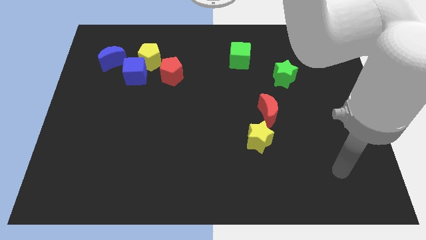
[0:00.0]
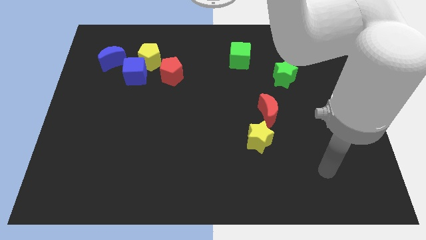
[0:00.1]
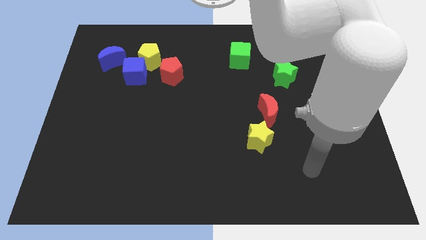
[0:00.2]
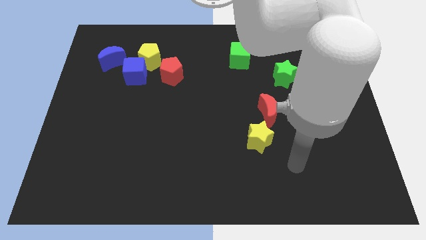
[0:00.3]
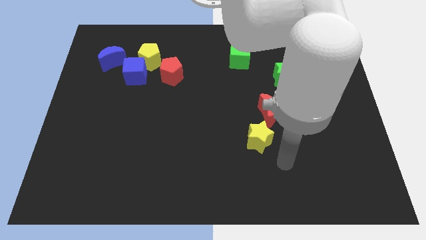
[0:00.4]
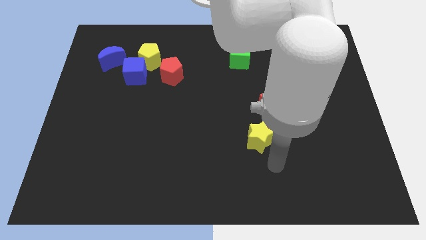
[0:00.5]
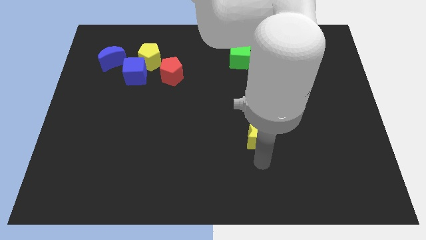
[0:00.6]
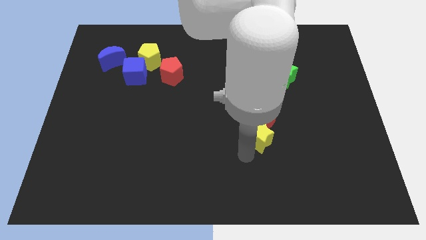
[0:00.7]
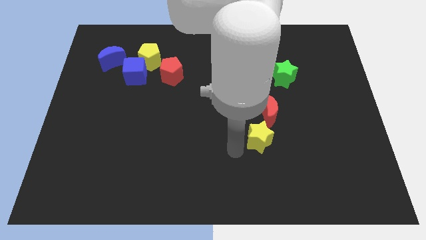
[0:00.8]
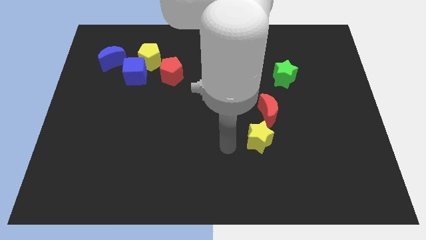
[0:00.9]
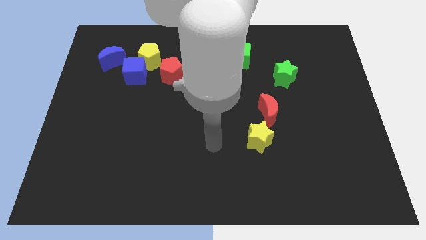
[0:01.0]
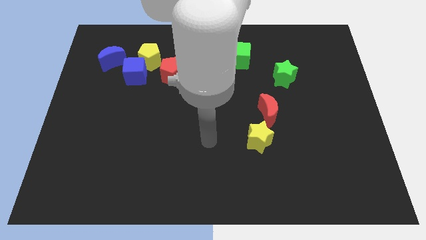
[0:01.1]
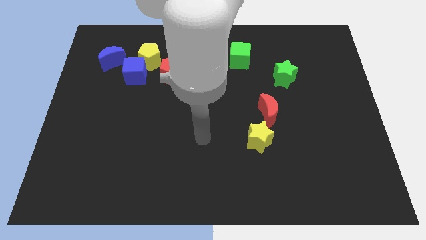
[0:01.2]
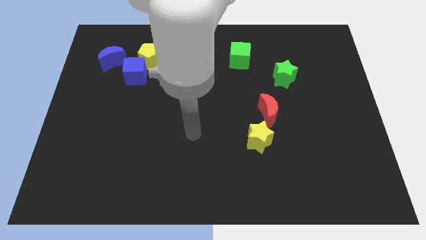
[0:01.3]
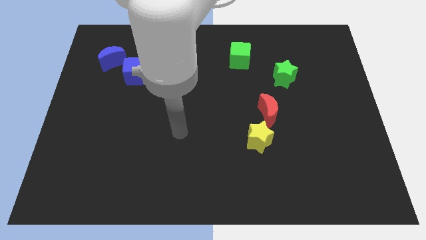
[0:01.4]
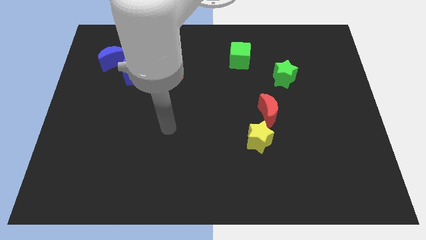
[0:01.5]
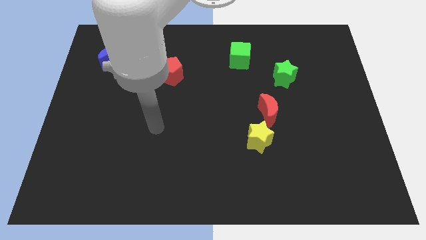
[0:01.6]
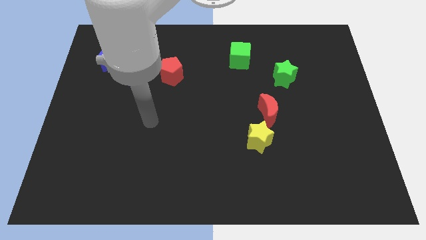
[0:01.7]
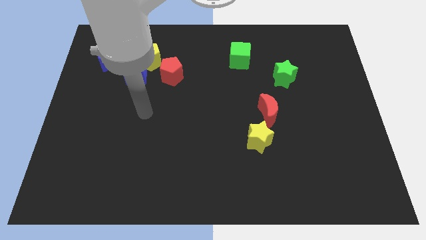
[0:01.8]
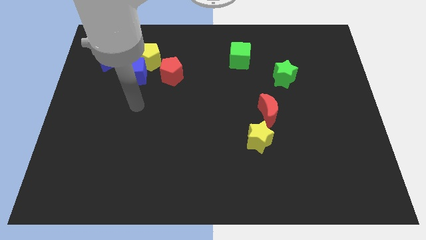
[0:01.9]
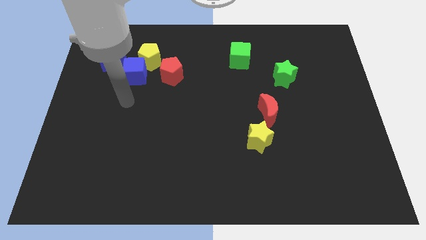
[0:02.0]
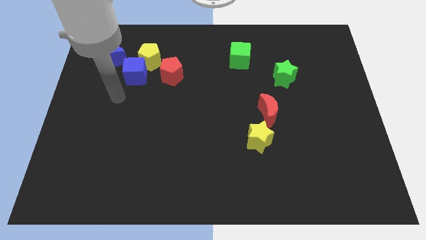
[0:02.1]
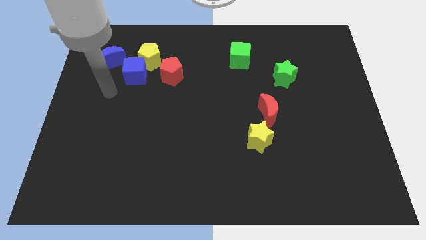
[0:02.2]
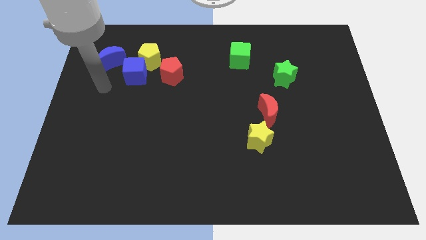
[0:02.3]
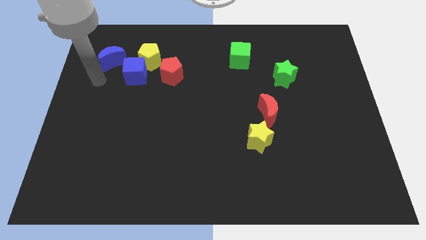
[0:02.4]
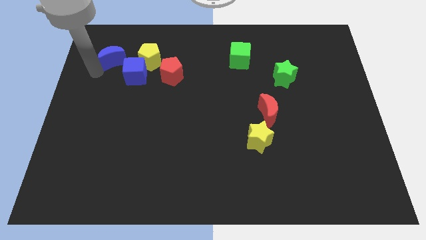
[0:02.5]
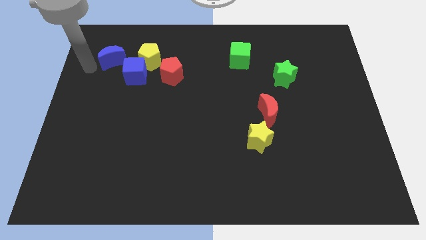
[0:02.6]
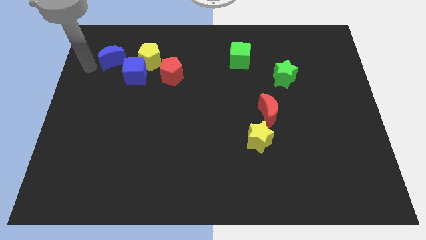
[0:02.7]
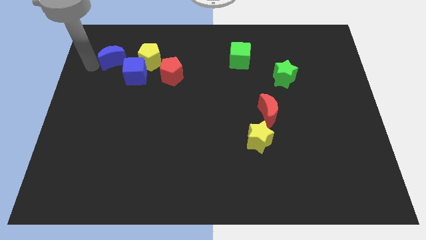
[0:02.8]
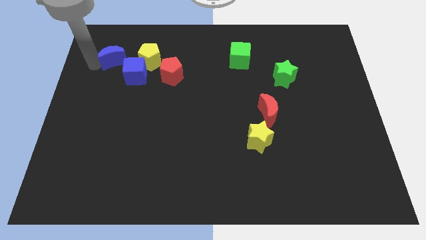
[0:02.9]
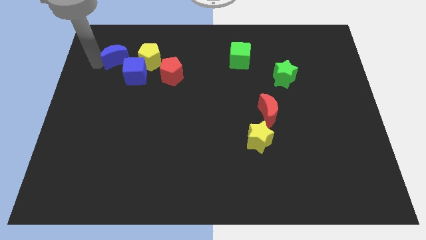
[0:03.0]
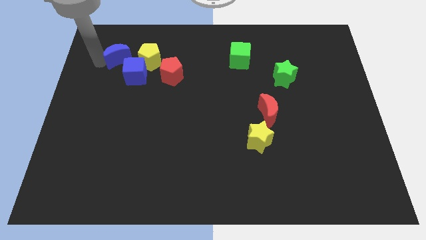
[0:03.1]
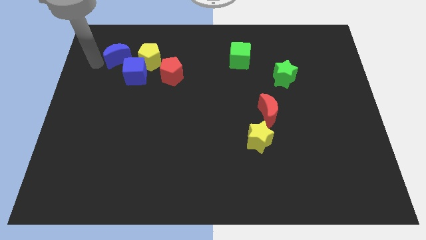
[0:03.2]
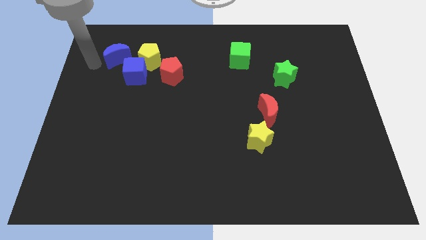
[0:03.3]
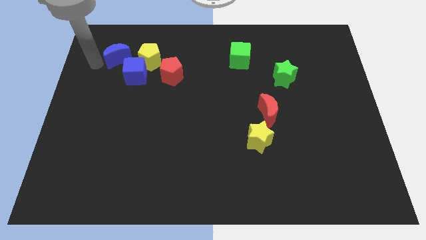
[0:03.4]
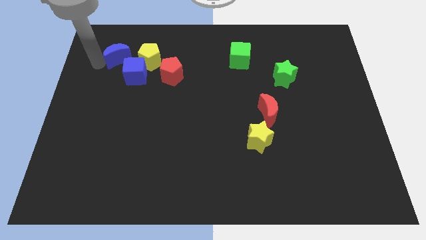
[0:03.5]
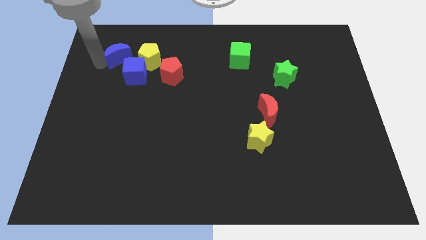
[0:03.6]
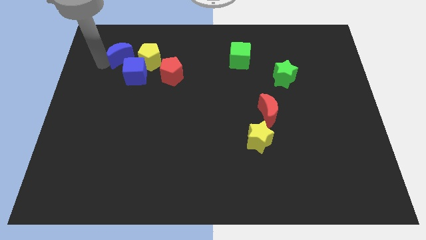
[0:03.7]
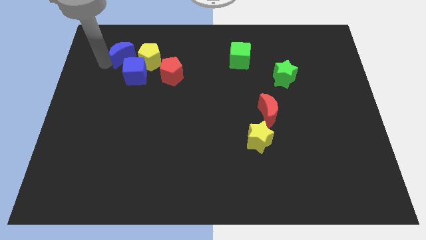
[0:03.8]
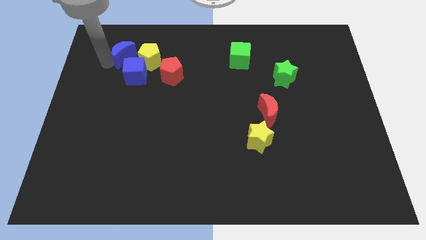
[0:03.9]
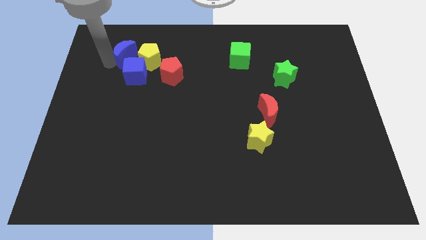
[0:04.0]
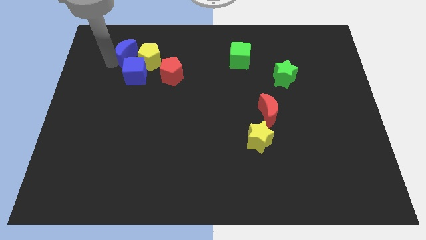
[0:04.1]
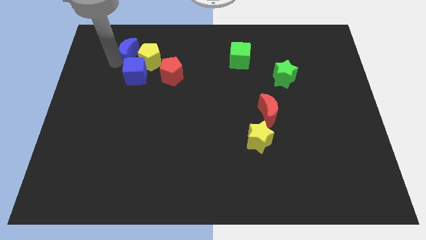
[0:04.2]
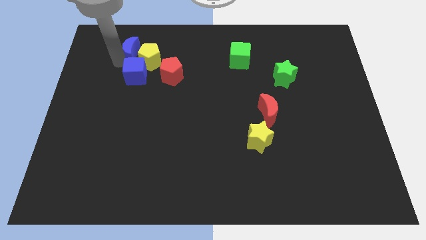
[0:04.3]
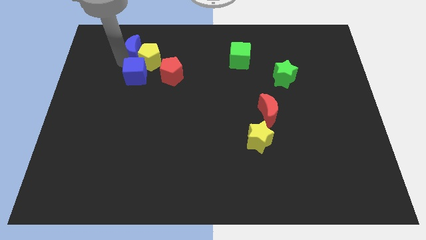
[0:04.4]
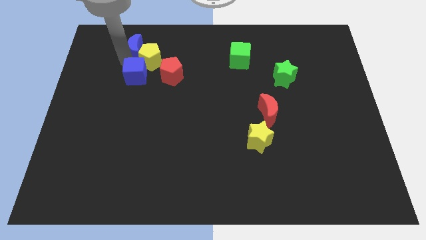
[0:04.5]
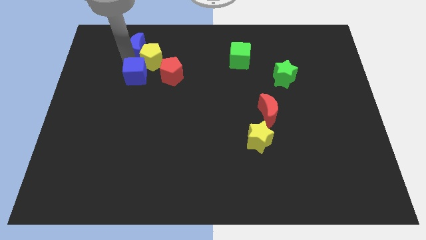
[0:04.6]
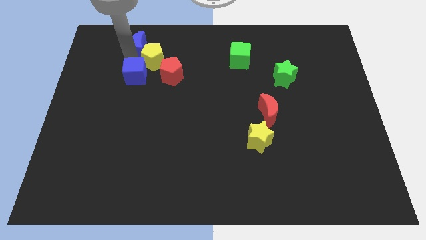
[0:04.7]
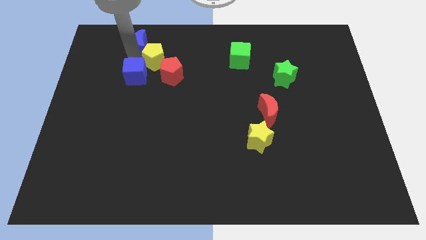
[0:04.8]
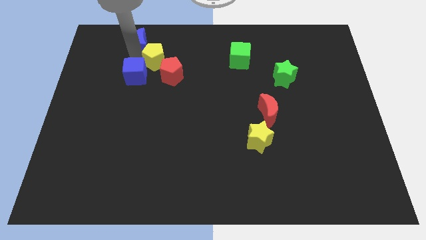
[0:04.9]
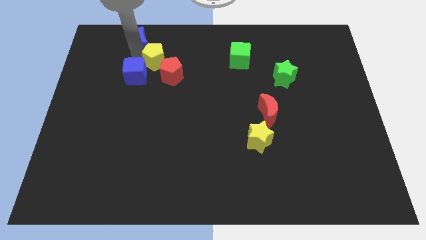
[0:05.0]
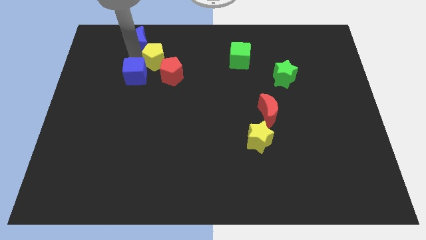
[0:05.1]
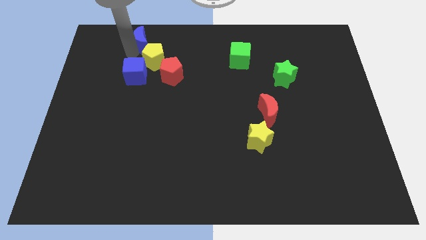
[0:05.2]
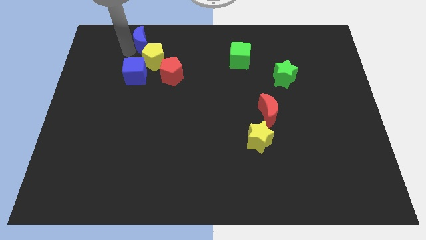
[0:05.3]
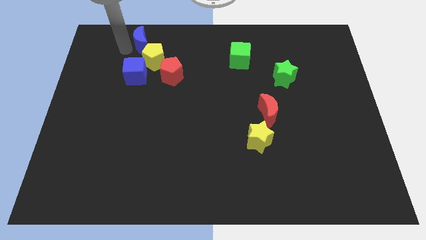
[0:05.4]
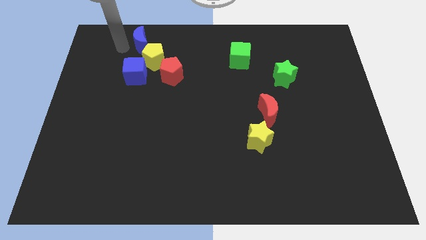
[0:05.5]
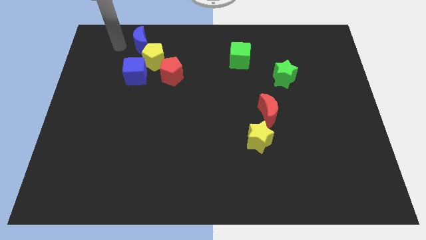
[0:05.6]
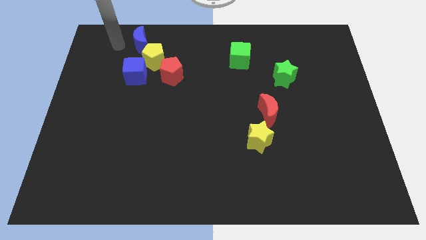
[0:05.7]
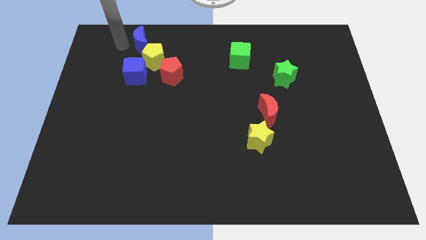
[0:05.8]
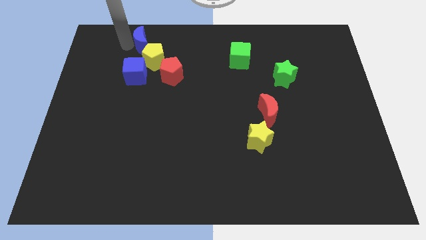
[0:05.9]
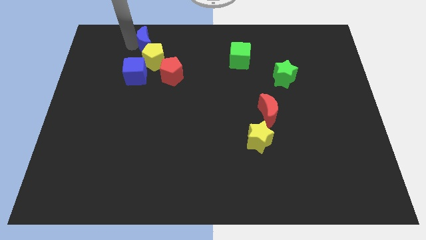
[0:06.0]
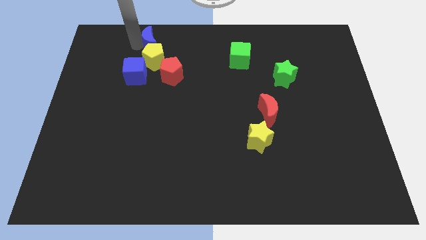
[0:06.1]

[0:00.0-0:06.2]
slide the blue moon a little bit to the right

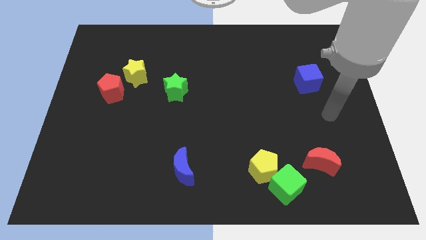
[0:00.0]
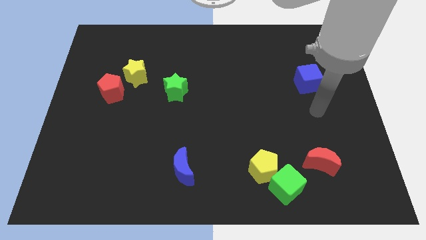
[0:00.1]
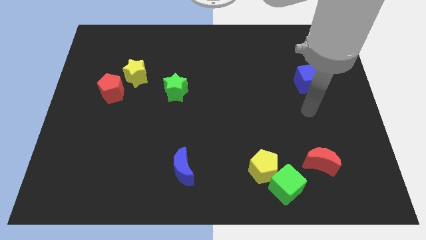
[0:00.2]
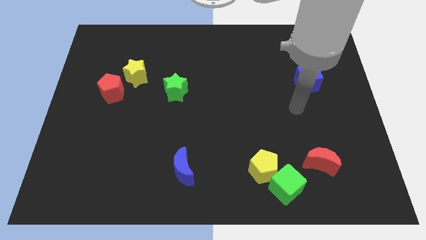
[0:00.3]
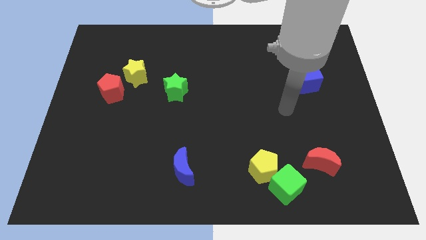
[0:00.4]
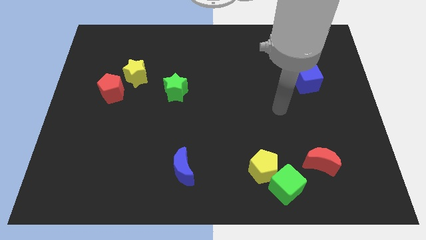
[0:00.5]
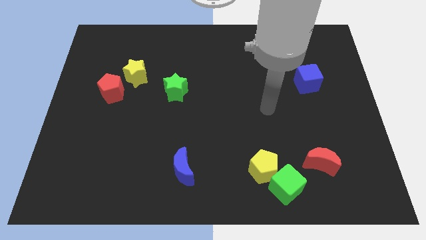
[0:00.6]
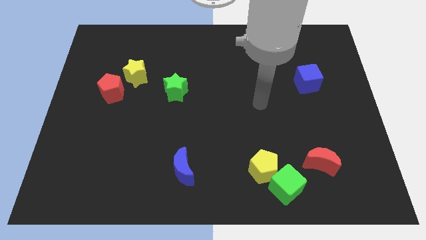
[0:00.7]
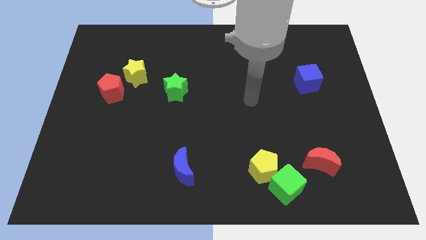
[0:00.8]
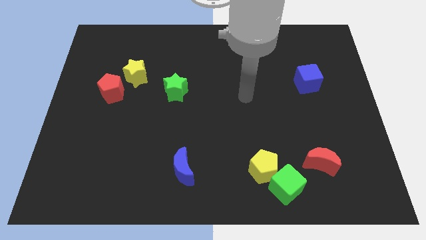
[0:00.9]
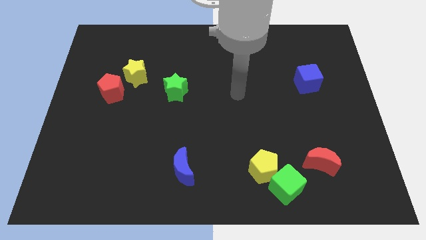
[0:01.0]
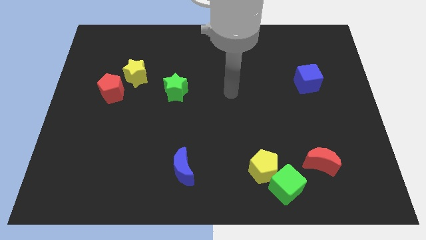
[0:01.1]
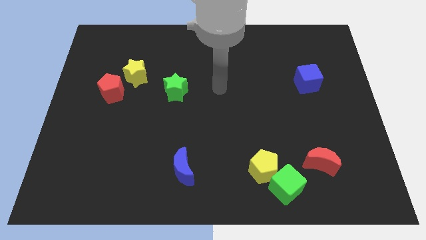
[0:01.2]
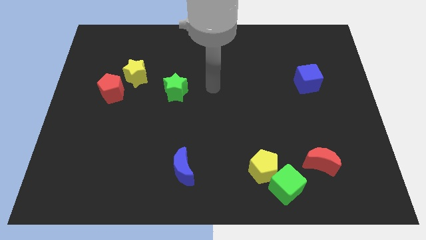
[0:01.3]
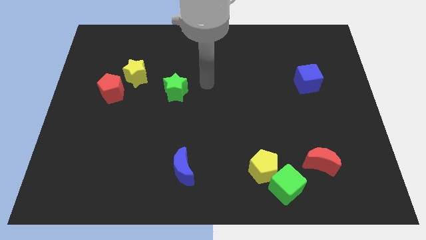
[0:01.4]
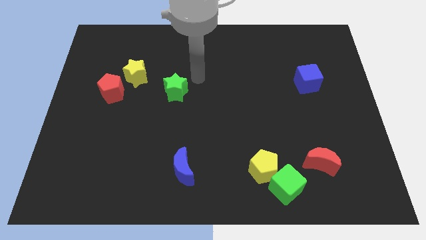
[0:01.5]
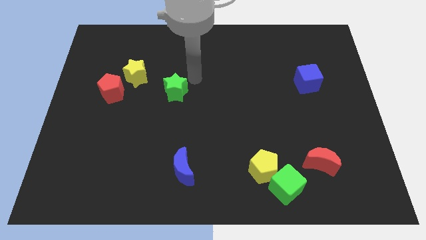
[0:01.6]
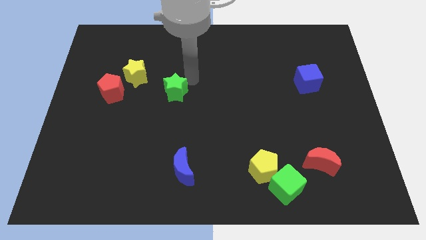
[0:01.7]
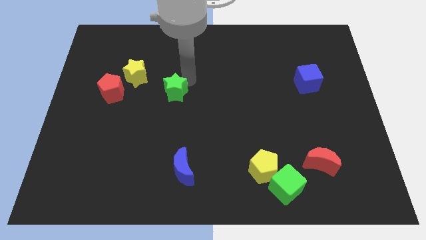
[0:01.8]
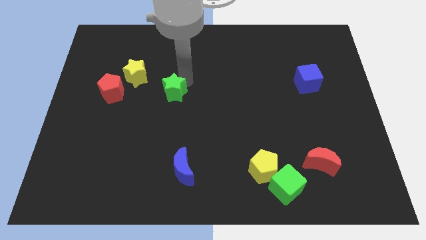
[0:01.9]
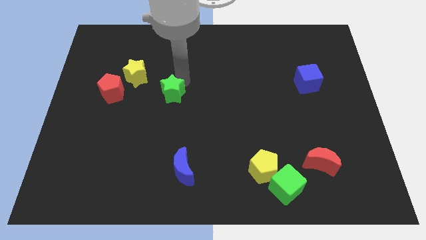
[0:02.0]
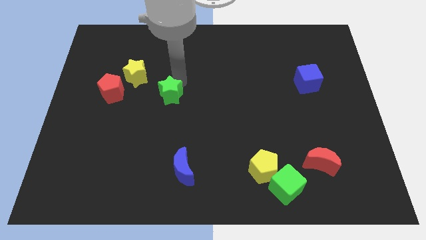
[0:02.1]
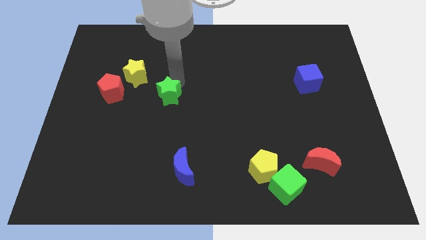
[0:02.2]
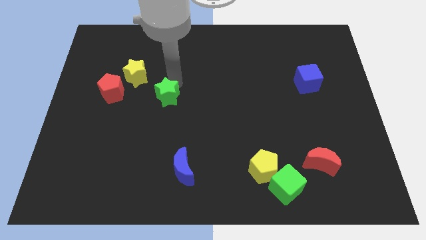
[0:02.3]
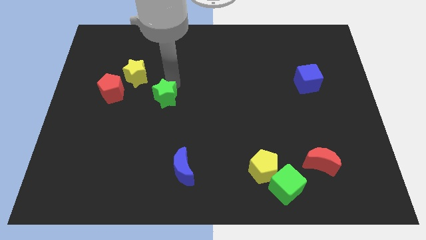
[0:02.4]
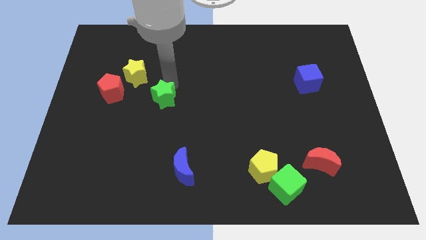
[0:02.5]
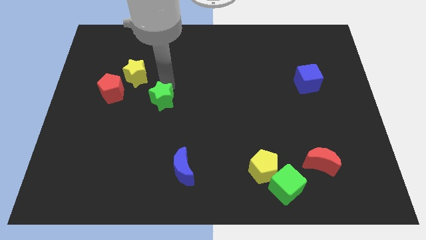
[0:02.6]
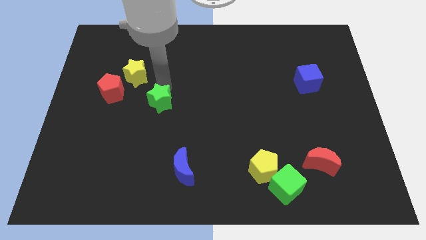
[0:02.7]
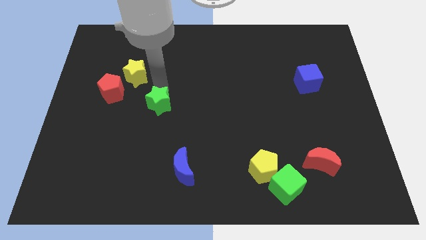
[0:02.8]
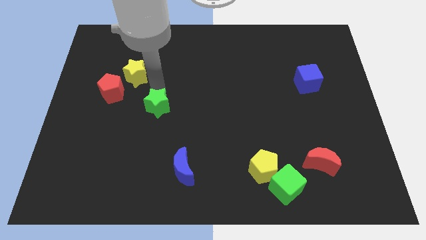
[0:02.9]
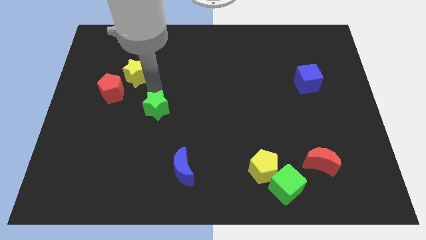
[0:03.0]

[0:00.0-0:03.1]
slide the green star diagonally downwards and left slightly
